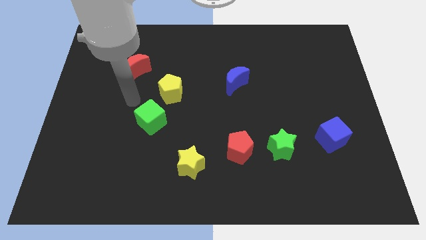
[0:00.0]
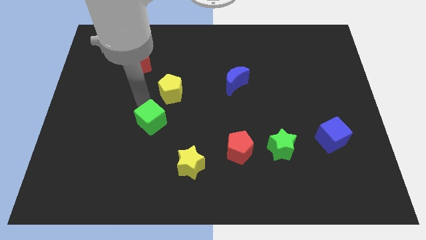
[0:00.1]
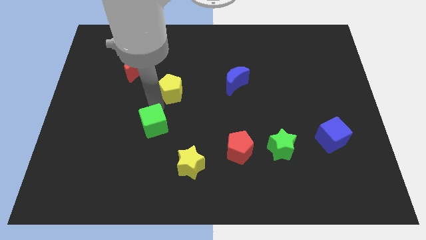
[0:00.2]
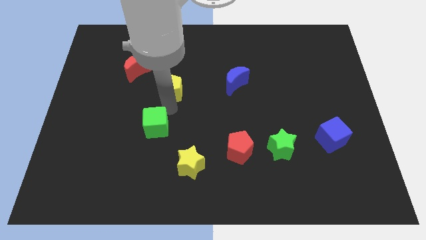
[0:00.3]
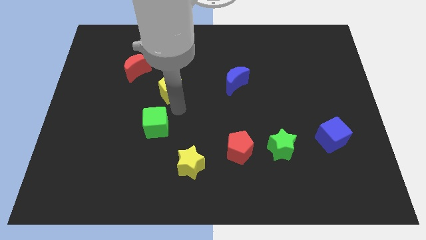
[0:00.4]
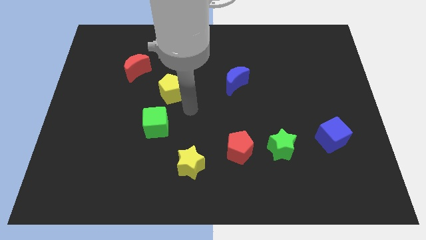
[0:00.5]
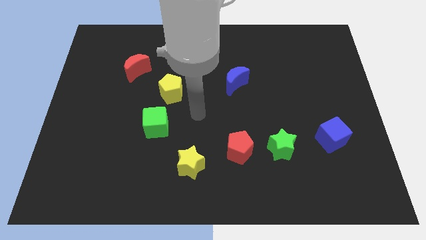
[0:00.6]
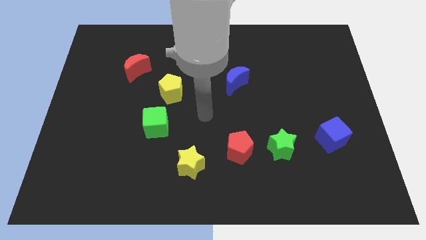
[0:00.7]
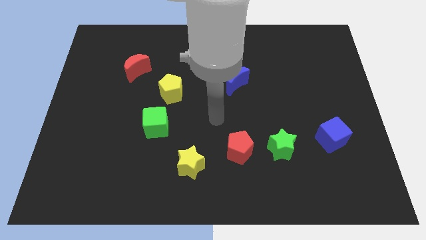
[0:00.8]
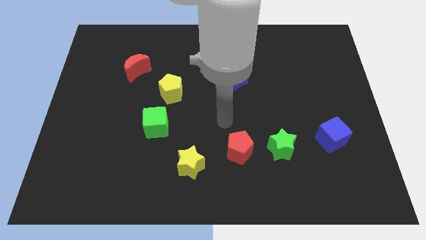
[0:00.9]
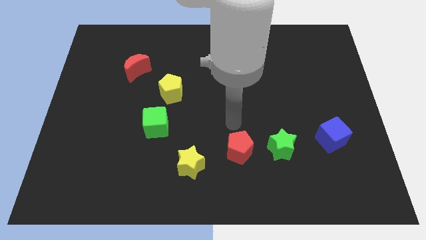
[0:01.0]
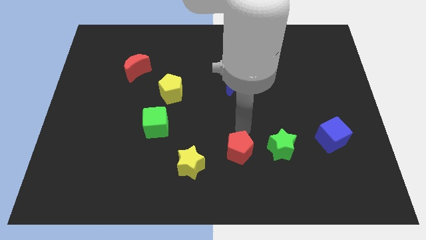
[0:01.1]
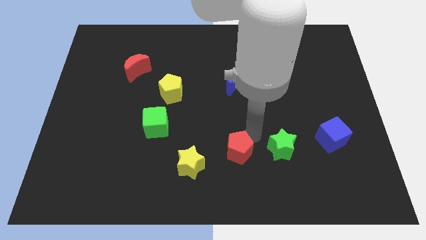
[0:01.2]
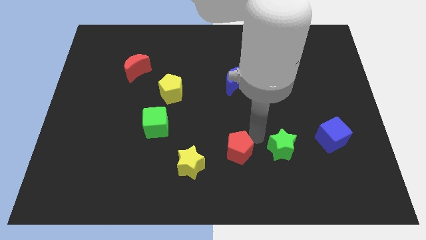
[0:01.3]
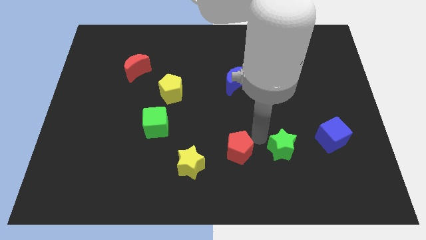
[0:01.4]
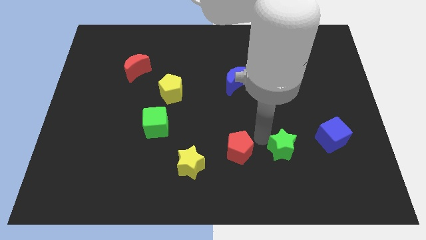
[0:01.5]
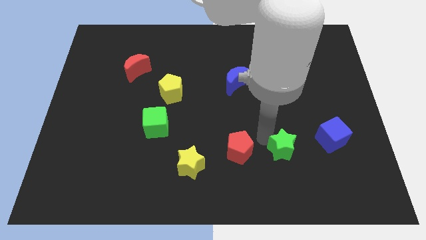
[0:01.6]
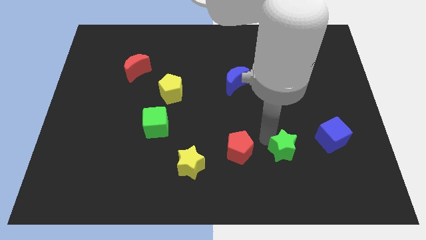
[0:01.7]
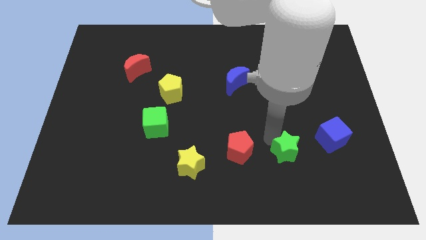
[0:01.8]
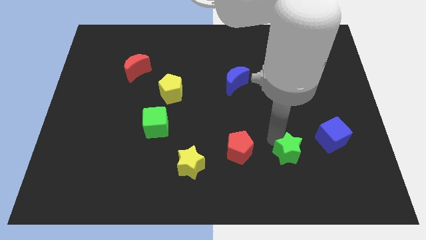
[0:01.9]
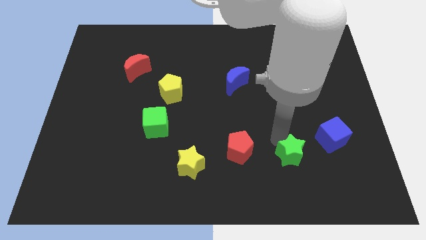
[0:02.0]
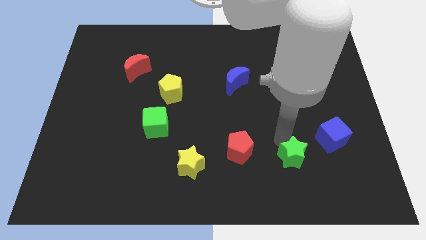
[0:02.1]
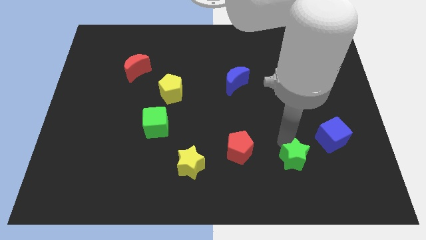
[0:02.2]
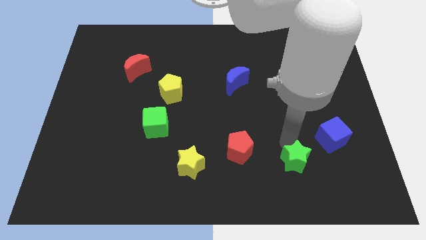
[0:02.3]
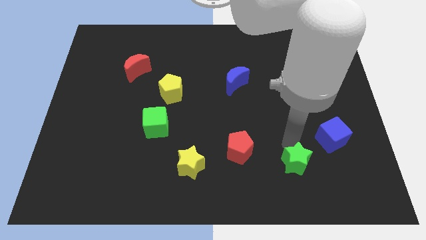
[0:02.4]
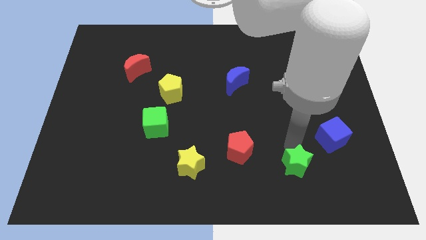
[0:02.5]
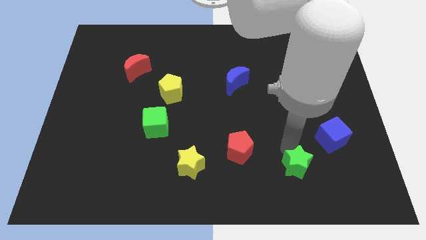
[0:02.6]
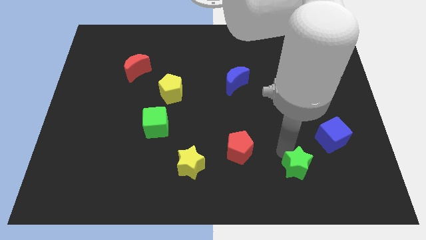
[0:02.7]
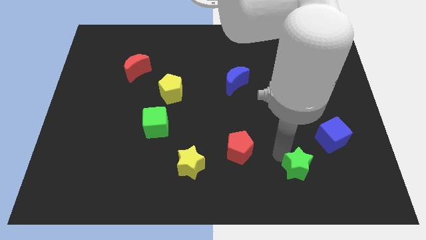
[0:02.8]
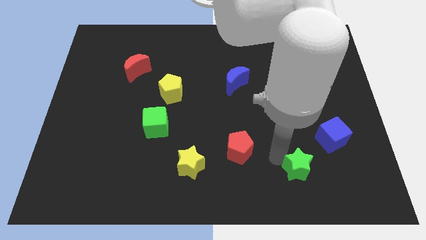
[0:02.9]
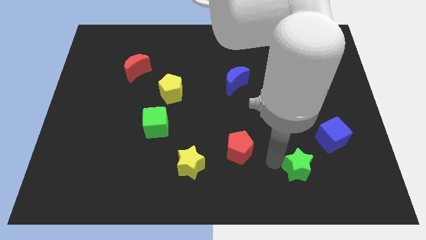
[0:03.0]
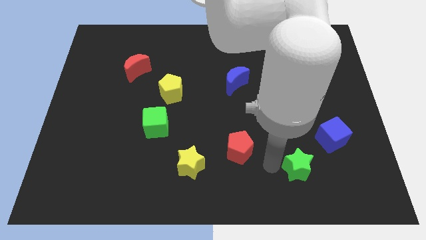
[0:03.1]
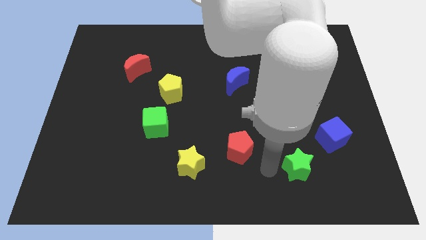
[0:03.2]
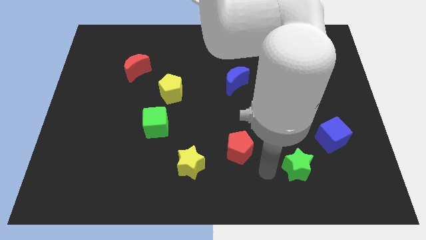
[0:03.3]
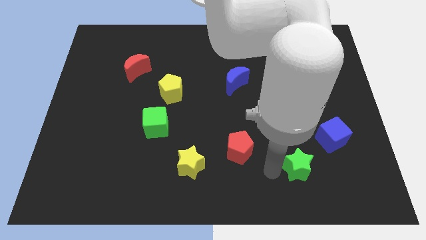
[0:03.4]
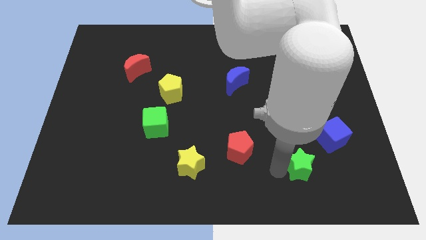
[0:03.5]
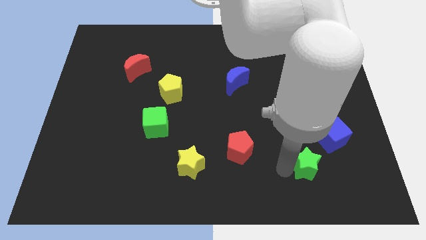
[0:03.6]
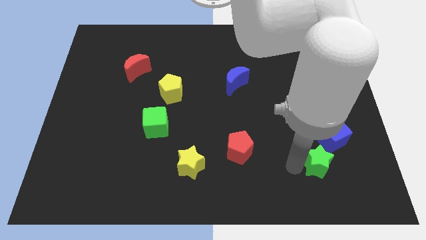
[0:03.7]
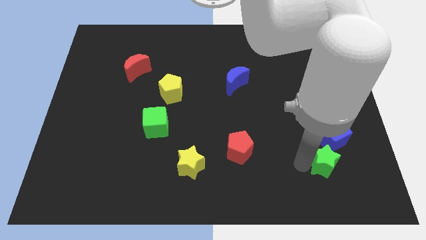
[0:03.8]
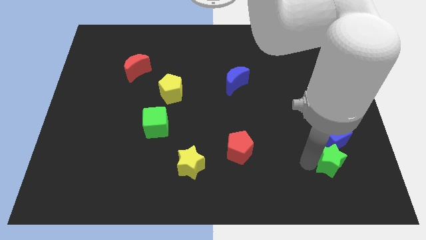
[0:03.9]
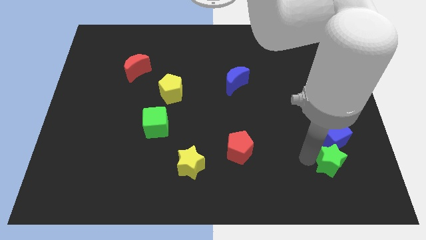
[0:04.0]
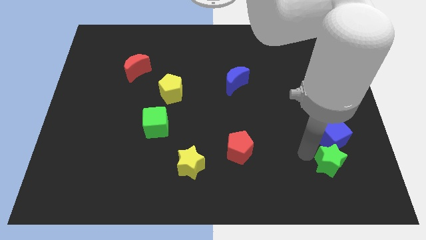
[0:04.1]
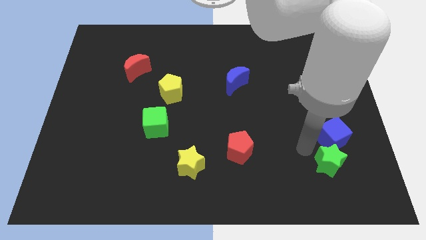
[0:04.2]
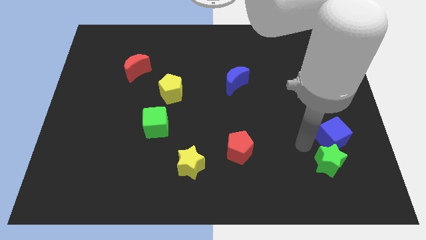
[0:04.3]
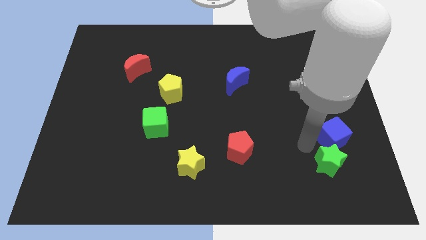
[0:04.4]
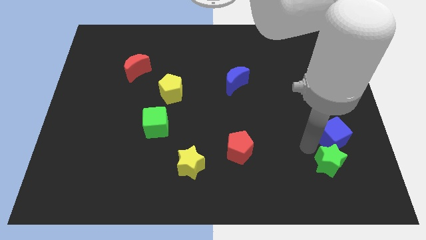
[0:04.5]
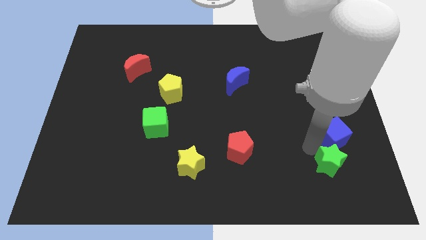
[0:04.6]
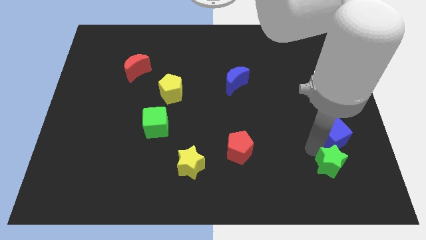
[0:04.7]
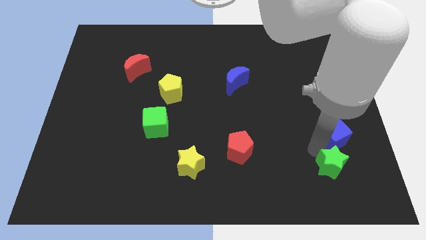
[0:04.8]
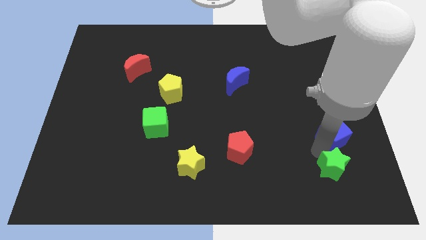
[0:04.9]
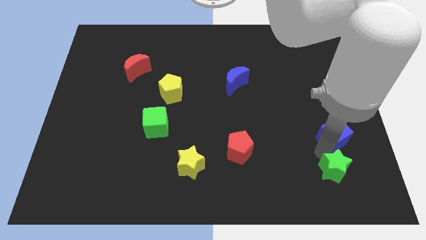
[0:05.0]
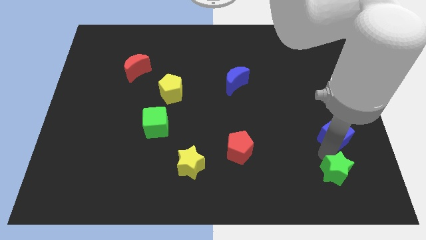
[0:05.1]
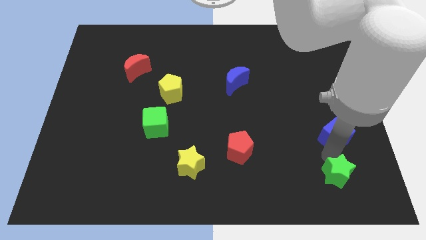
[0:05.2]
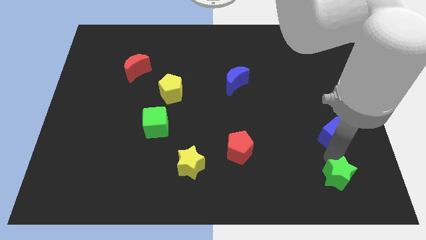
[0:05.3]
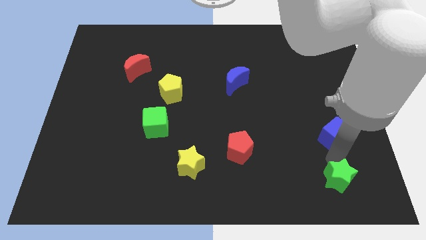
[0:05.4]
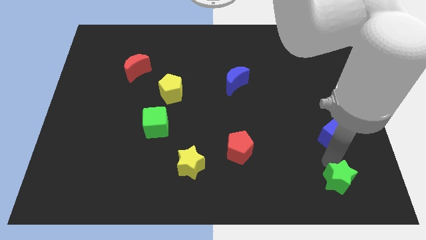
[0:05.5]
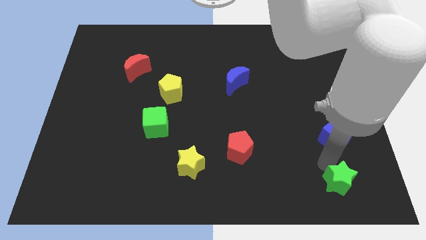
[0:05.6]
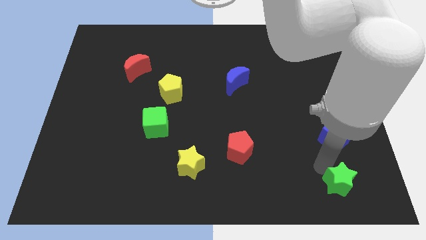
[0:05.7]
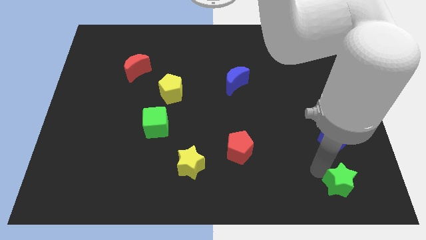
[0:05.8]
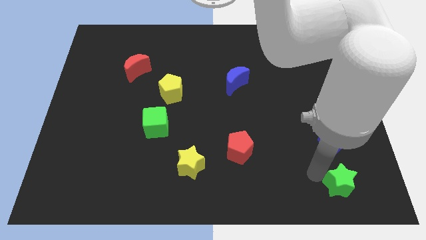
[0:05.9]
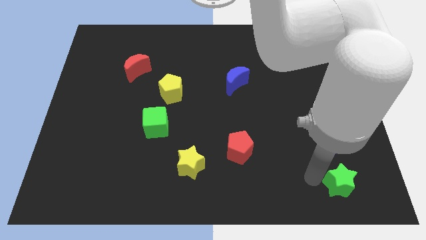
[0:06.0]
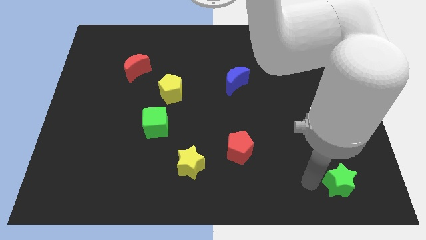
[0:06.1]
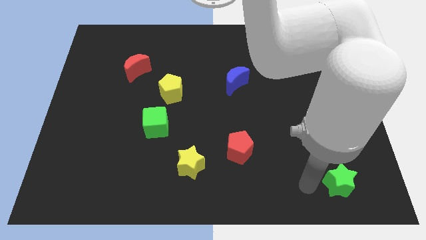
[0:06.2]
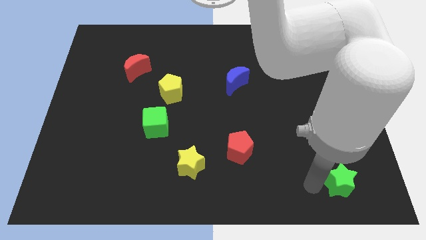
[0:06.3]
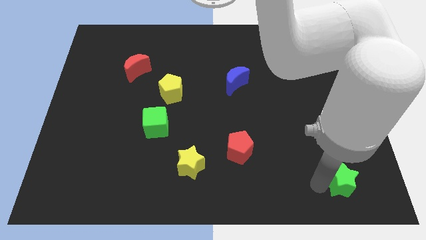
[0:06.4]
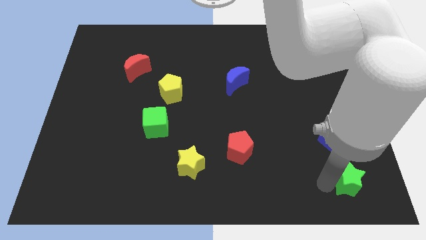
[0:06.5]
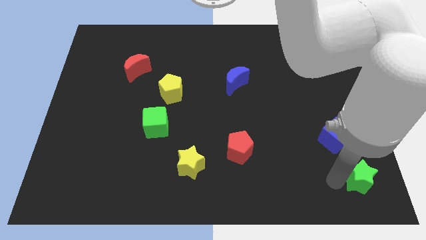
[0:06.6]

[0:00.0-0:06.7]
slide the green star to the bottom right of the board
